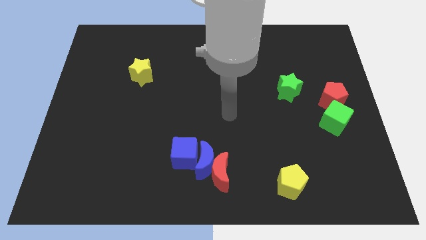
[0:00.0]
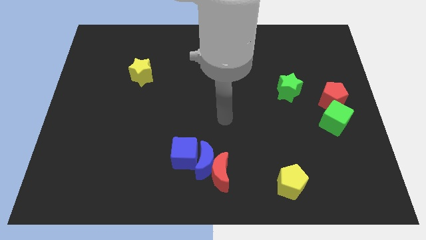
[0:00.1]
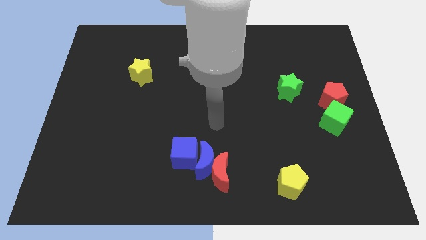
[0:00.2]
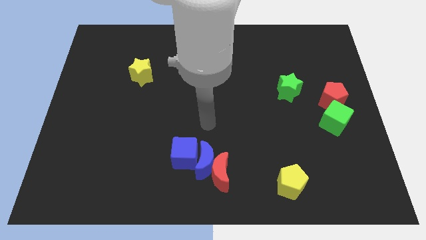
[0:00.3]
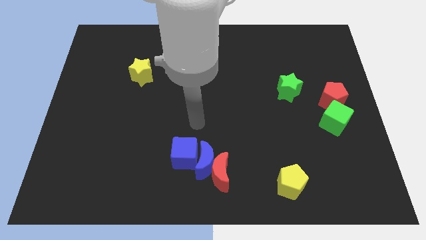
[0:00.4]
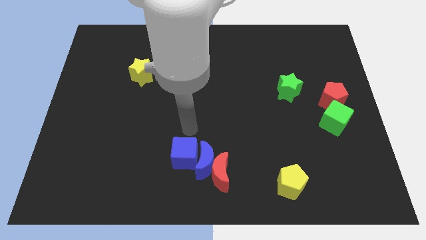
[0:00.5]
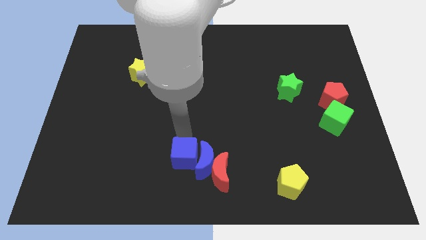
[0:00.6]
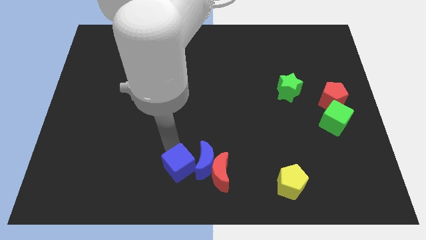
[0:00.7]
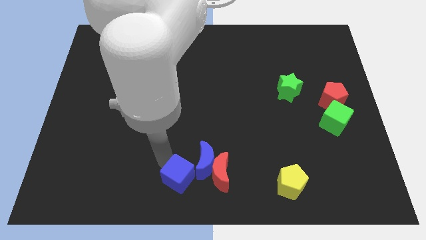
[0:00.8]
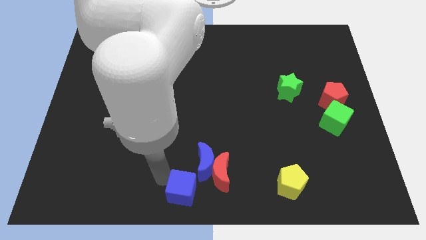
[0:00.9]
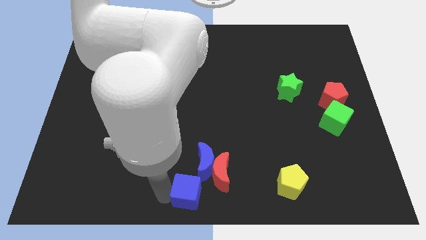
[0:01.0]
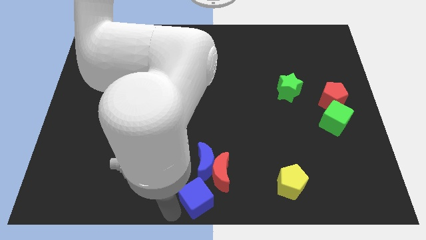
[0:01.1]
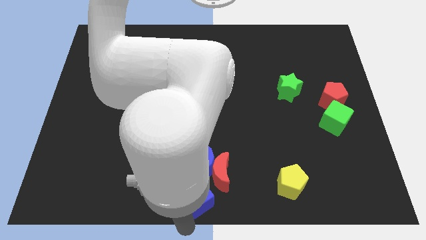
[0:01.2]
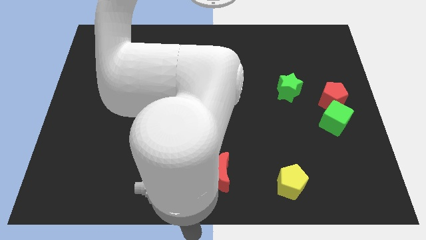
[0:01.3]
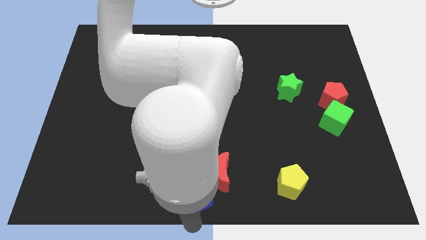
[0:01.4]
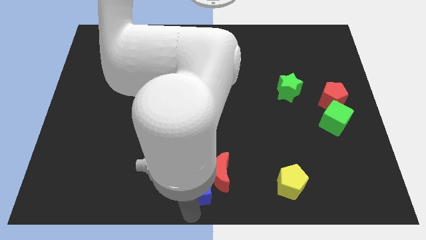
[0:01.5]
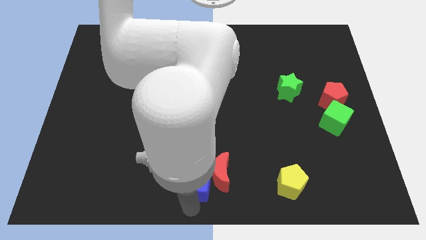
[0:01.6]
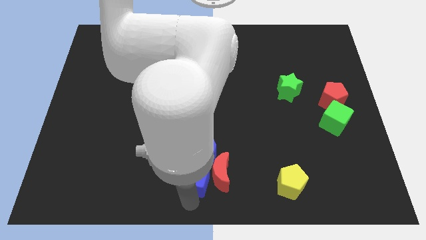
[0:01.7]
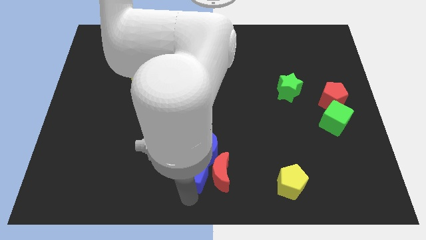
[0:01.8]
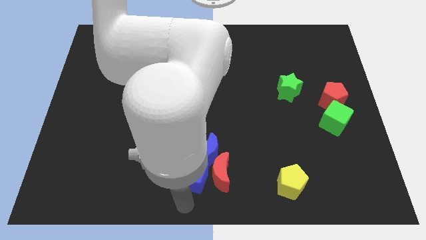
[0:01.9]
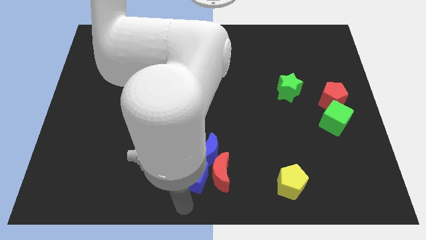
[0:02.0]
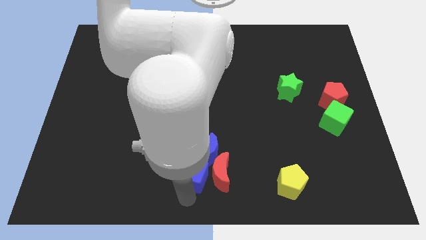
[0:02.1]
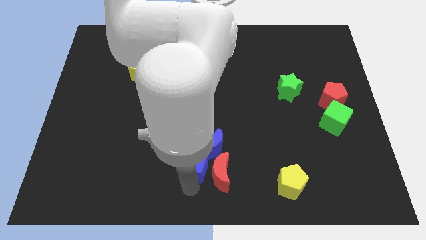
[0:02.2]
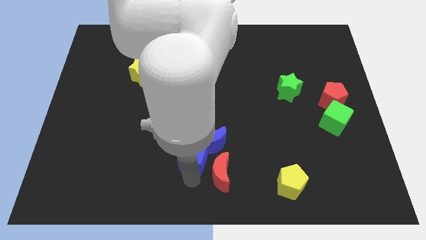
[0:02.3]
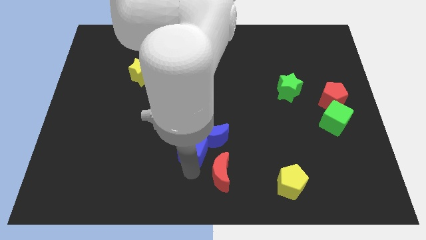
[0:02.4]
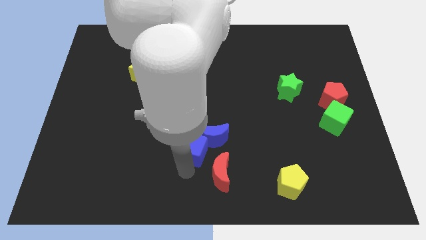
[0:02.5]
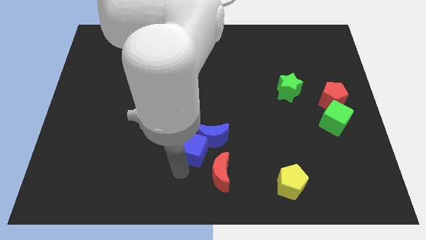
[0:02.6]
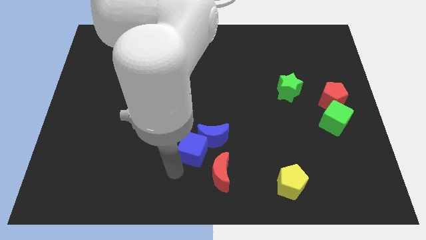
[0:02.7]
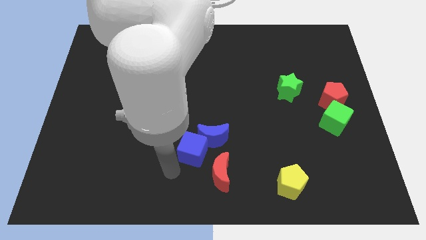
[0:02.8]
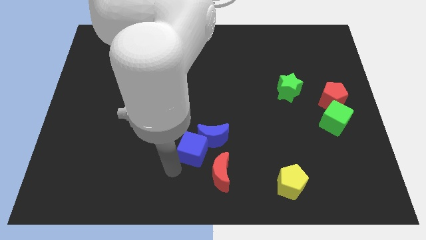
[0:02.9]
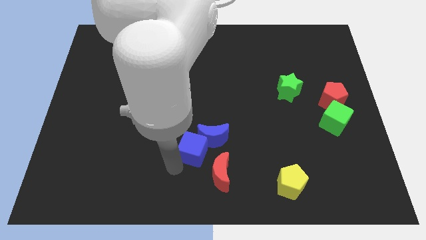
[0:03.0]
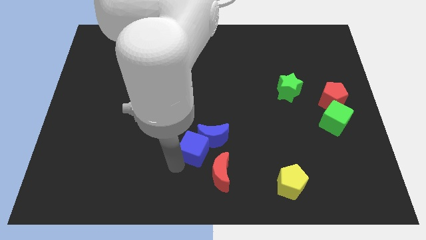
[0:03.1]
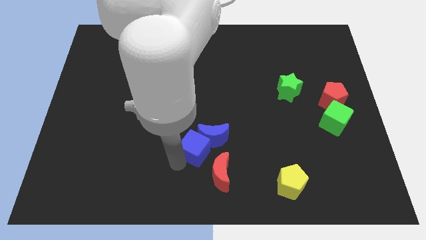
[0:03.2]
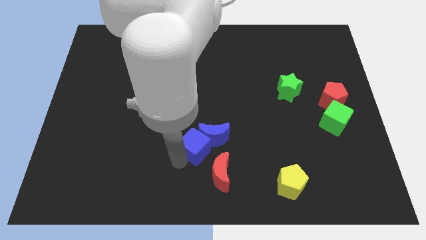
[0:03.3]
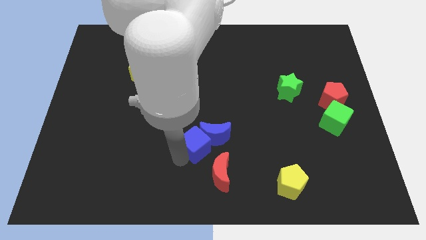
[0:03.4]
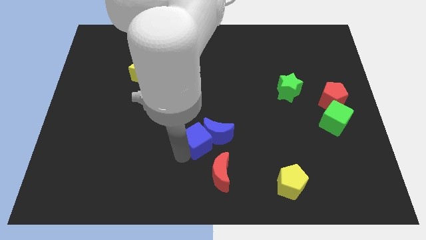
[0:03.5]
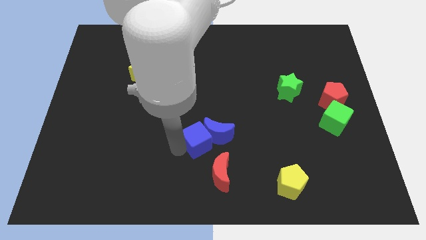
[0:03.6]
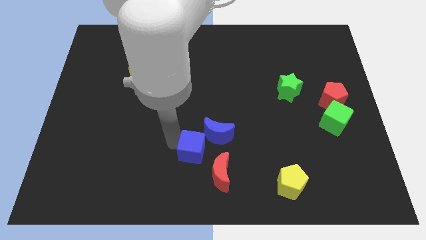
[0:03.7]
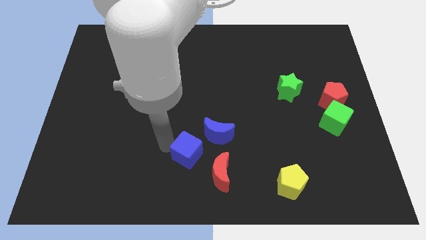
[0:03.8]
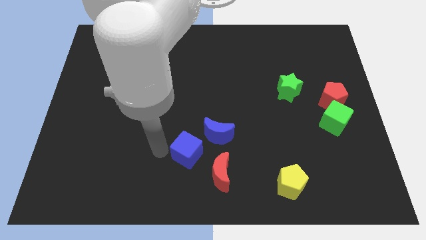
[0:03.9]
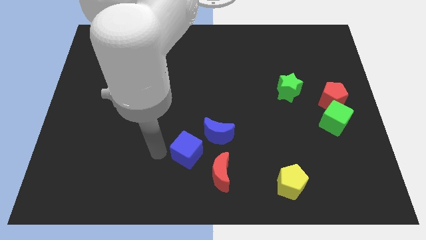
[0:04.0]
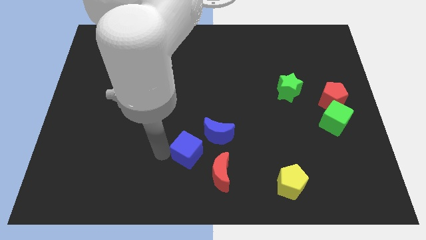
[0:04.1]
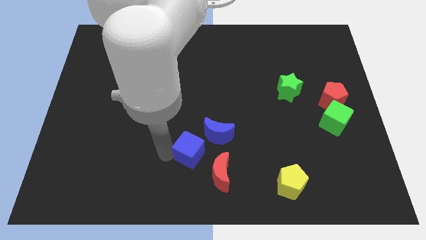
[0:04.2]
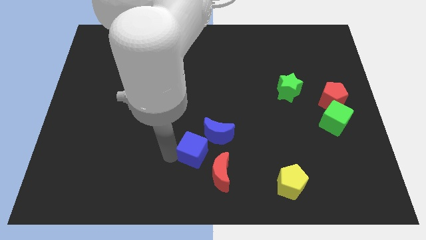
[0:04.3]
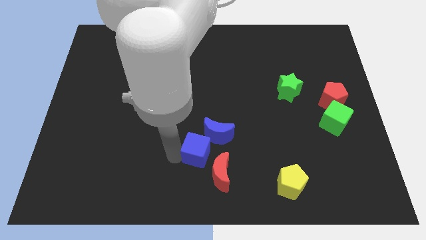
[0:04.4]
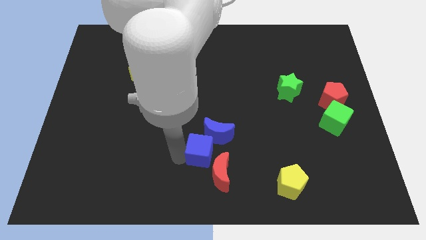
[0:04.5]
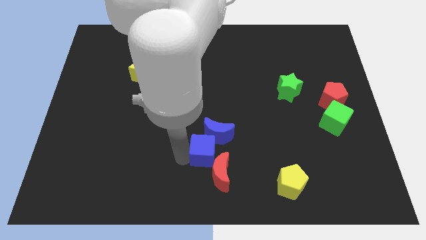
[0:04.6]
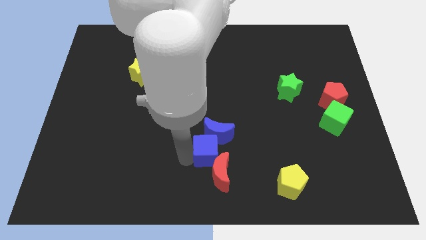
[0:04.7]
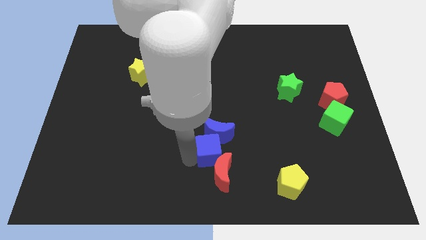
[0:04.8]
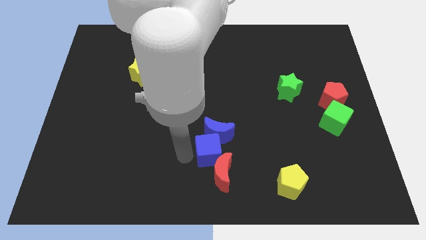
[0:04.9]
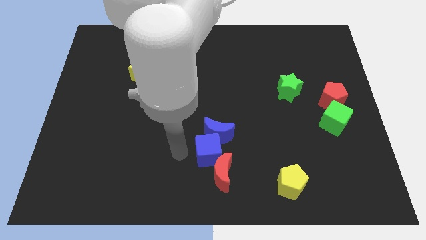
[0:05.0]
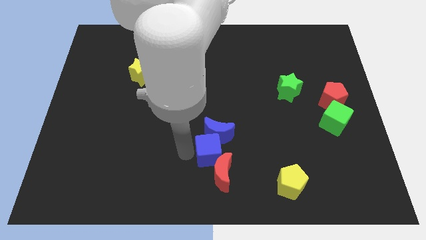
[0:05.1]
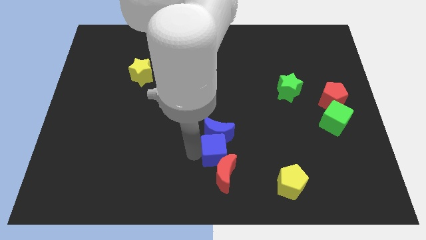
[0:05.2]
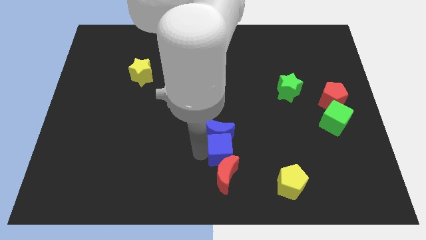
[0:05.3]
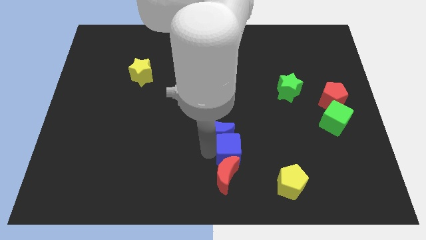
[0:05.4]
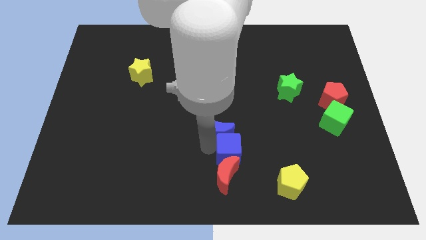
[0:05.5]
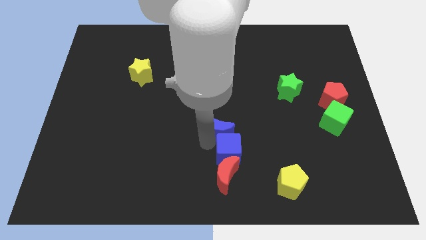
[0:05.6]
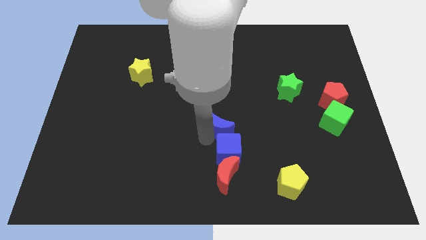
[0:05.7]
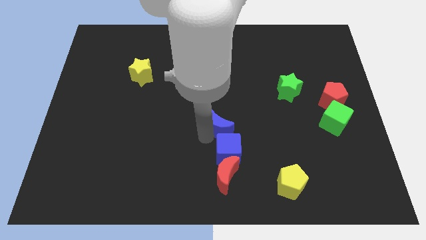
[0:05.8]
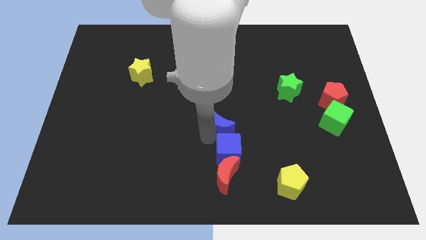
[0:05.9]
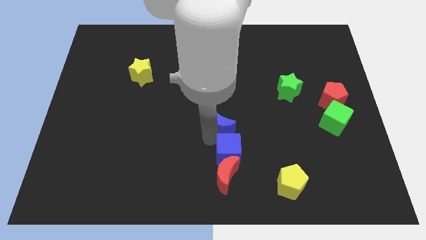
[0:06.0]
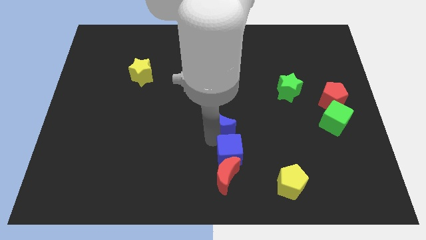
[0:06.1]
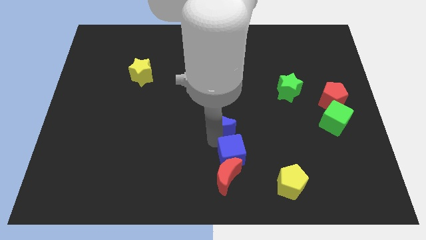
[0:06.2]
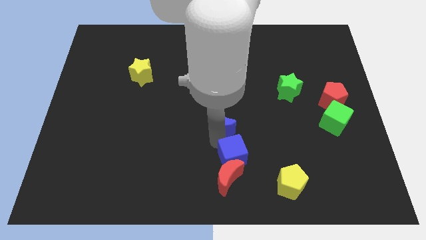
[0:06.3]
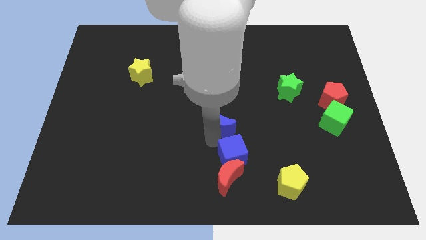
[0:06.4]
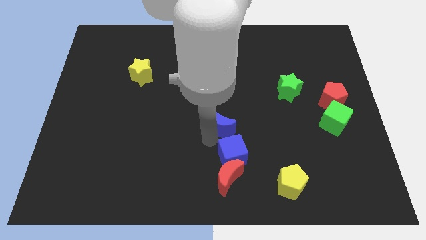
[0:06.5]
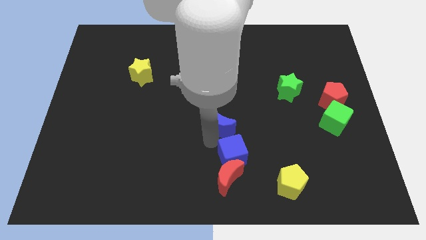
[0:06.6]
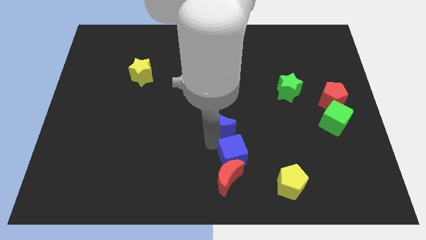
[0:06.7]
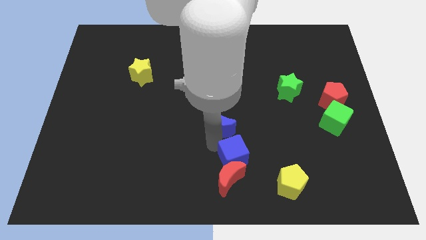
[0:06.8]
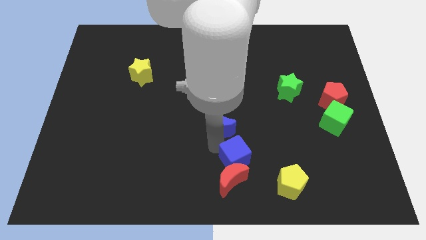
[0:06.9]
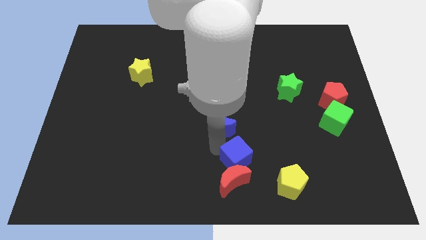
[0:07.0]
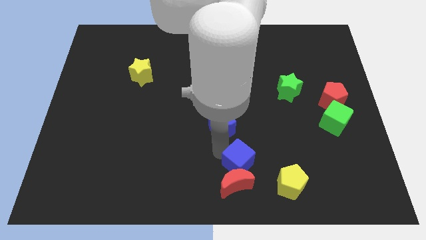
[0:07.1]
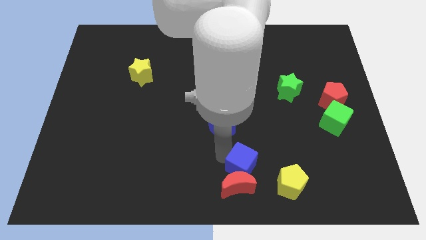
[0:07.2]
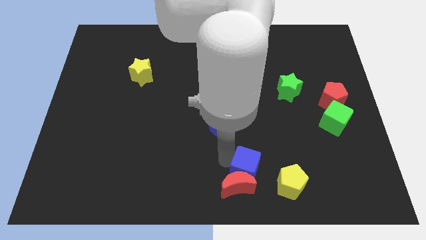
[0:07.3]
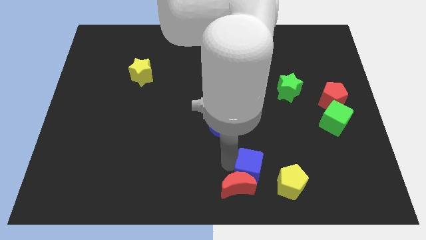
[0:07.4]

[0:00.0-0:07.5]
move the blue cube just right of the red moon

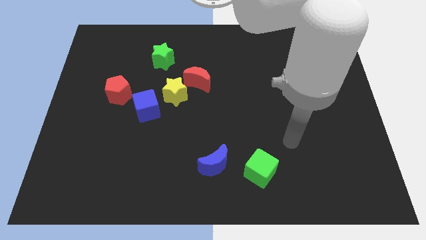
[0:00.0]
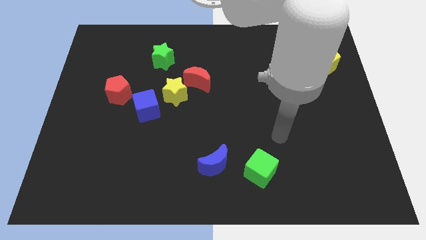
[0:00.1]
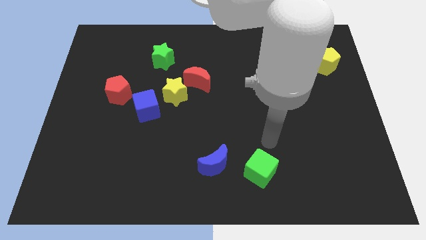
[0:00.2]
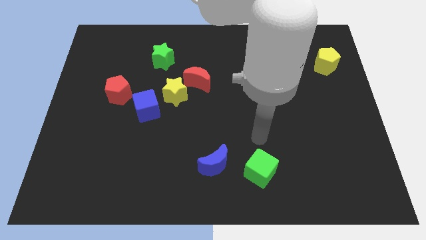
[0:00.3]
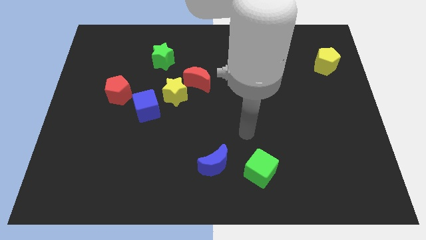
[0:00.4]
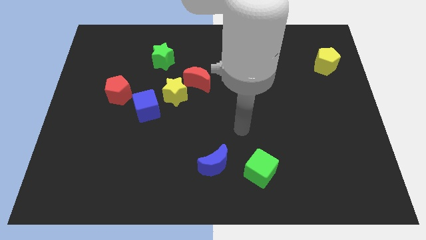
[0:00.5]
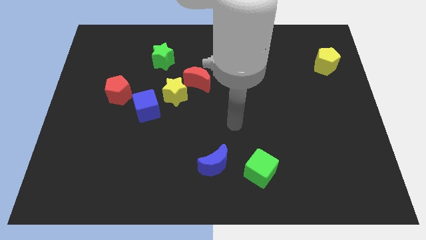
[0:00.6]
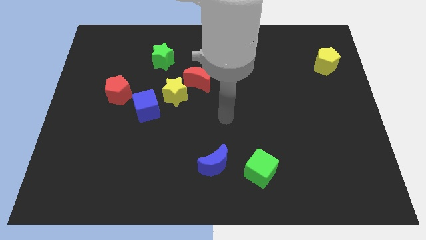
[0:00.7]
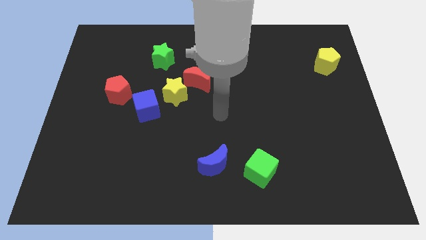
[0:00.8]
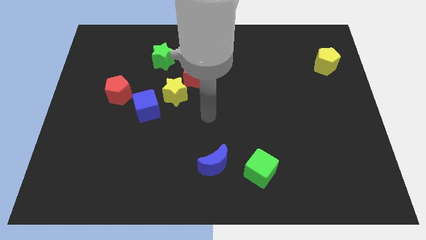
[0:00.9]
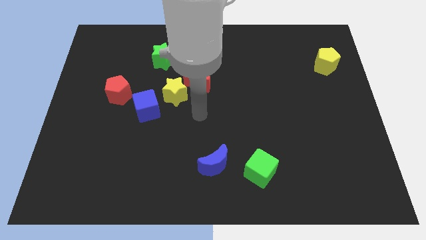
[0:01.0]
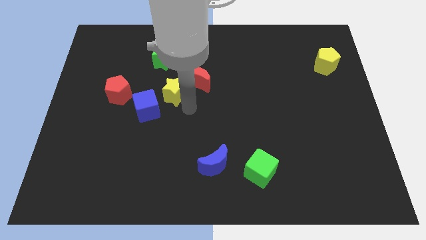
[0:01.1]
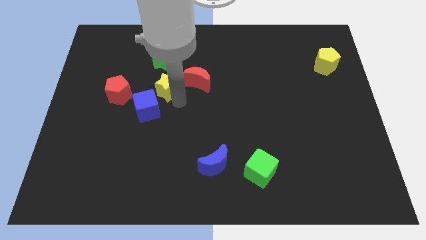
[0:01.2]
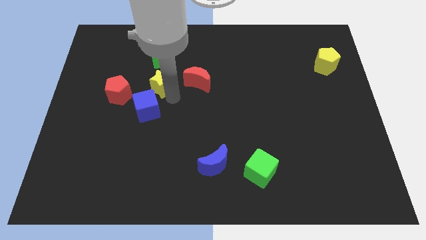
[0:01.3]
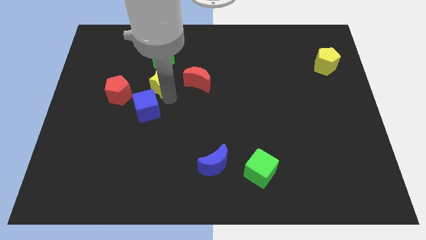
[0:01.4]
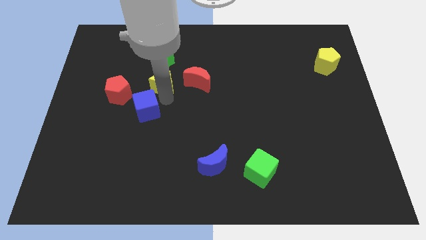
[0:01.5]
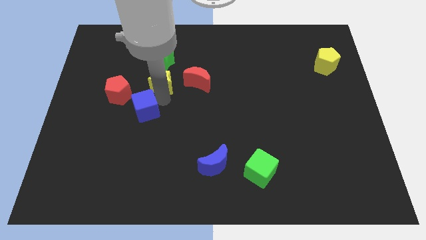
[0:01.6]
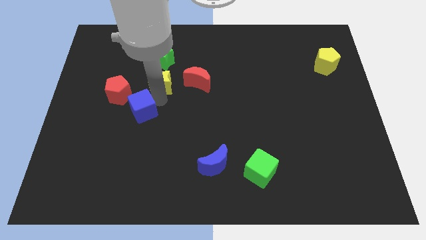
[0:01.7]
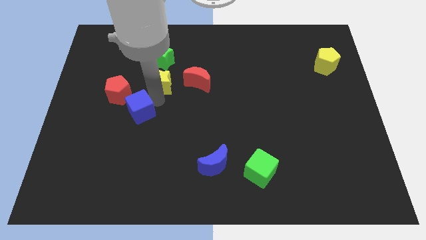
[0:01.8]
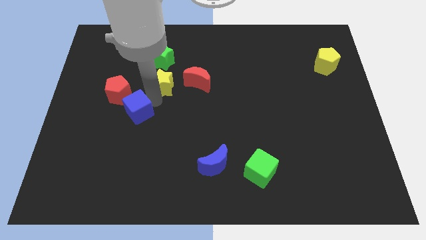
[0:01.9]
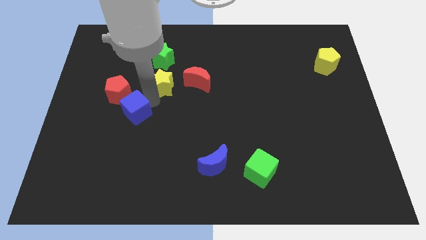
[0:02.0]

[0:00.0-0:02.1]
push the blue cube to the bottom of the red pentagon
